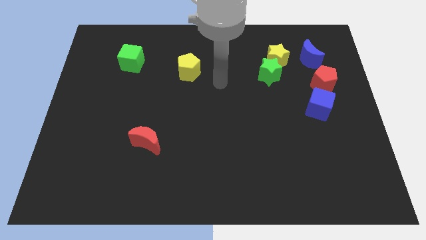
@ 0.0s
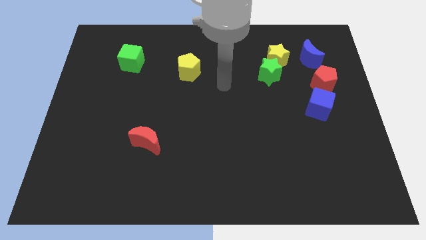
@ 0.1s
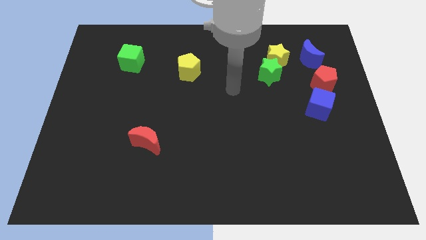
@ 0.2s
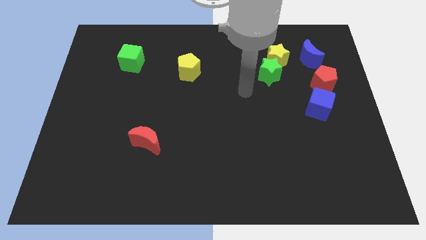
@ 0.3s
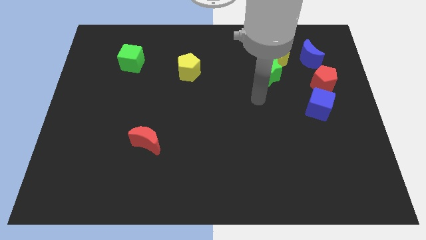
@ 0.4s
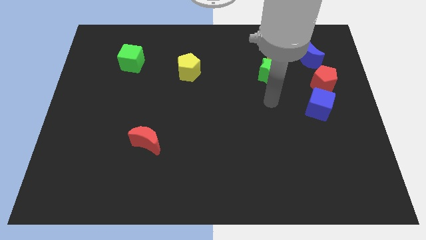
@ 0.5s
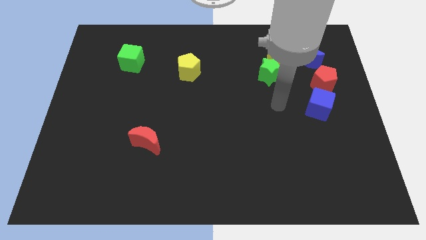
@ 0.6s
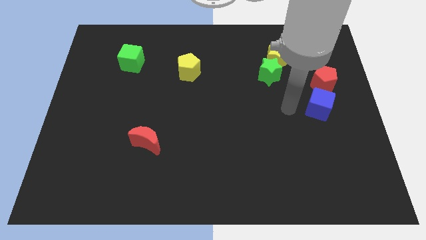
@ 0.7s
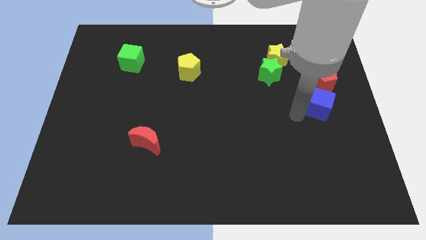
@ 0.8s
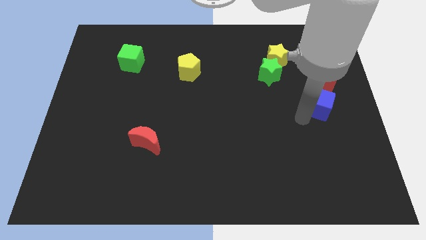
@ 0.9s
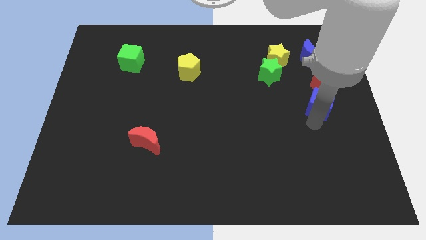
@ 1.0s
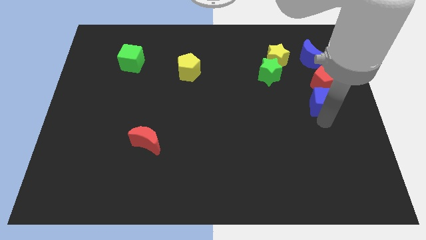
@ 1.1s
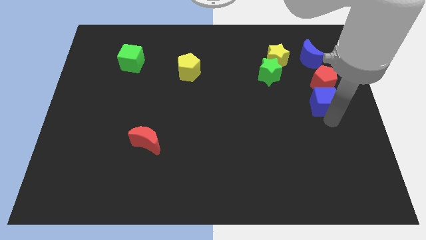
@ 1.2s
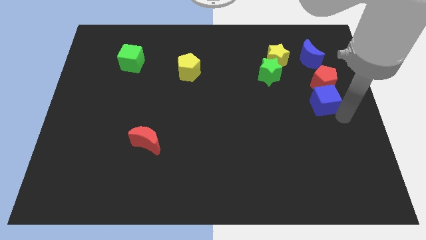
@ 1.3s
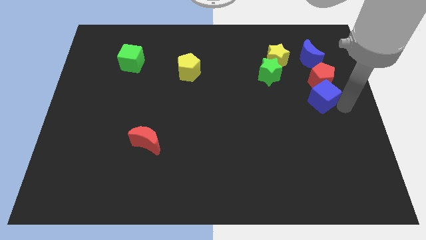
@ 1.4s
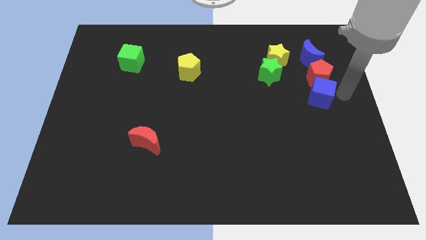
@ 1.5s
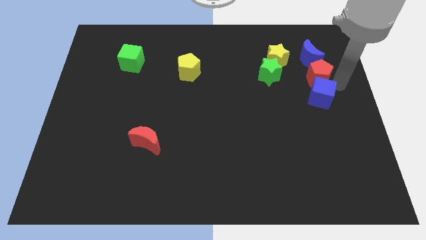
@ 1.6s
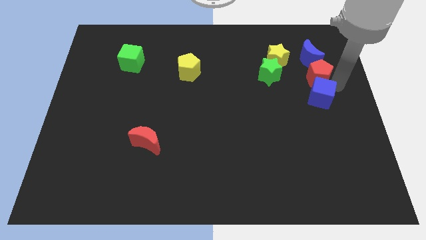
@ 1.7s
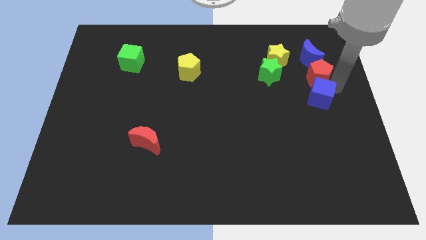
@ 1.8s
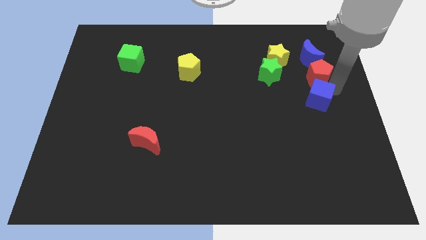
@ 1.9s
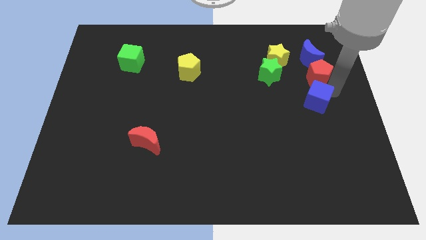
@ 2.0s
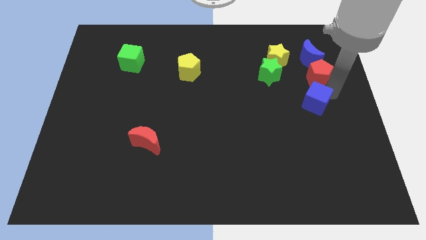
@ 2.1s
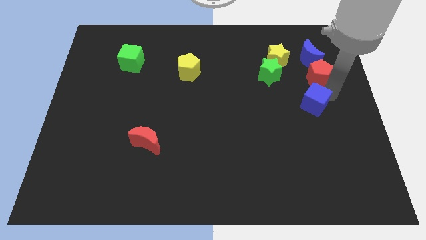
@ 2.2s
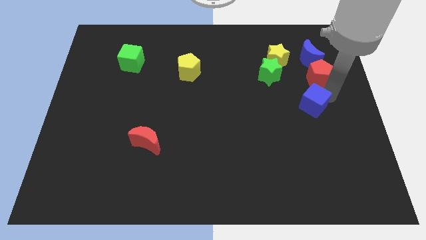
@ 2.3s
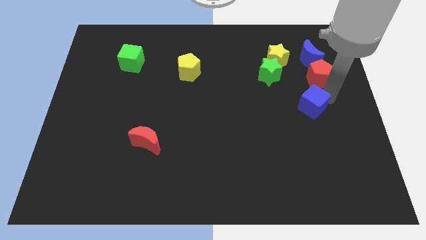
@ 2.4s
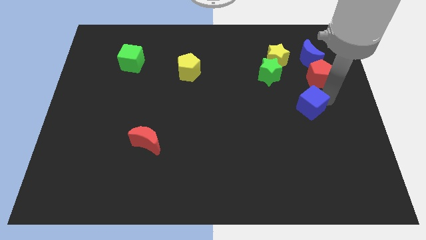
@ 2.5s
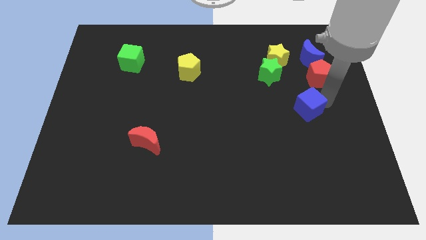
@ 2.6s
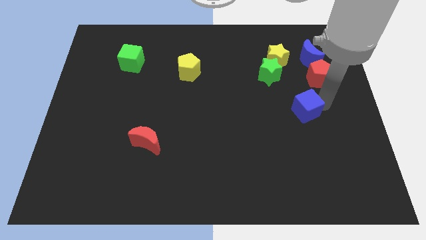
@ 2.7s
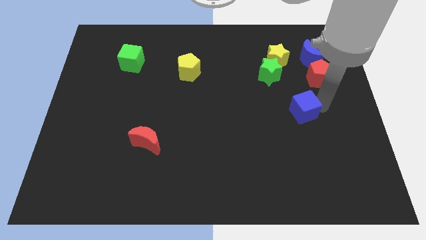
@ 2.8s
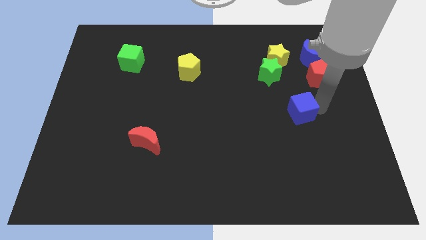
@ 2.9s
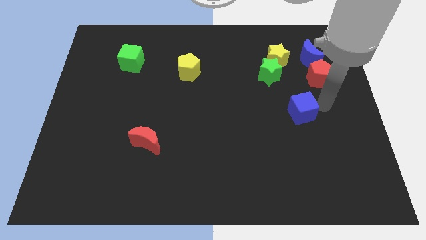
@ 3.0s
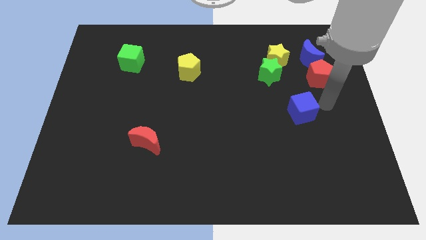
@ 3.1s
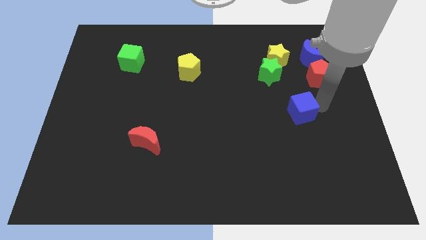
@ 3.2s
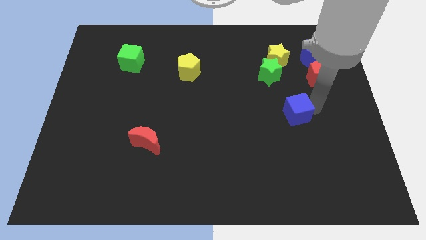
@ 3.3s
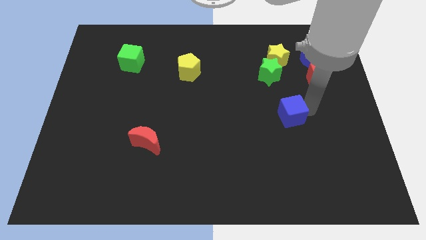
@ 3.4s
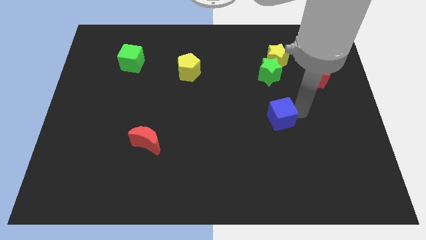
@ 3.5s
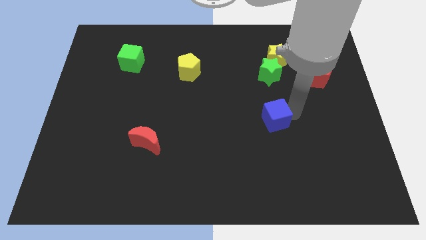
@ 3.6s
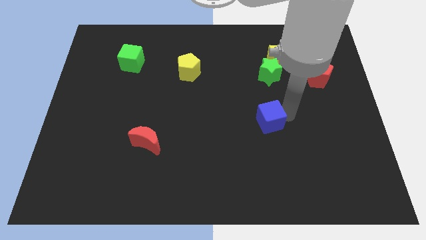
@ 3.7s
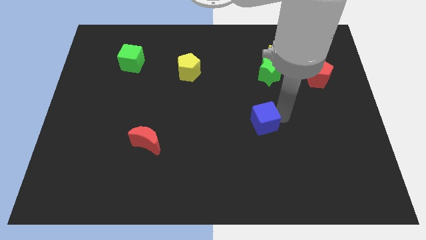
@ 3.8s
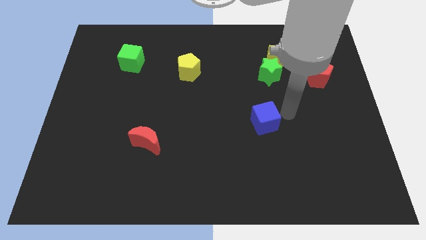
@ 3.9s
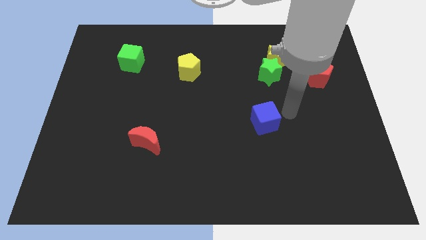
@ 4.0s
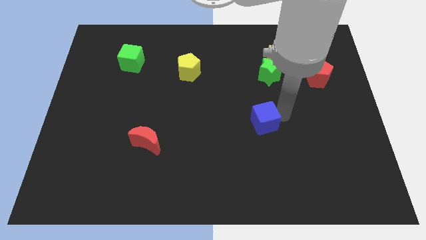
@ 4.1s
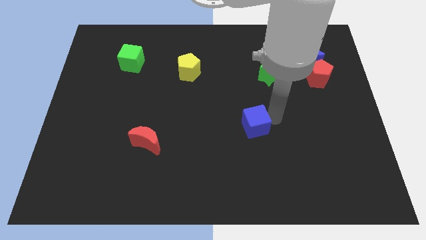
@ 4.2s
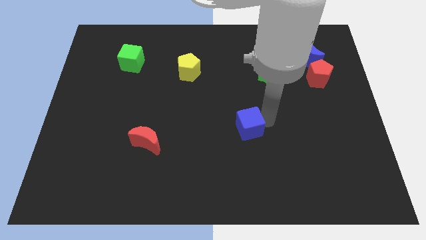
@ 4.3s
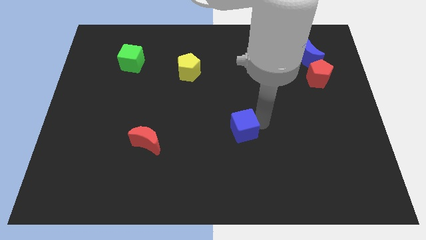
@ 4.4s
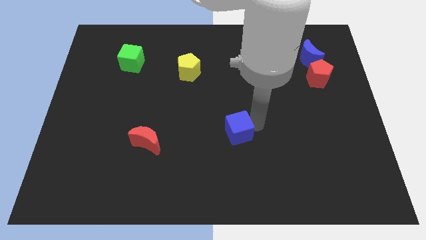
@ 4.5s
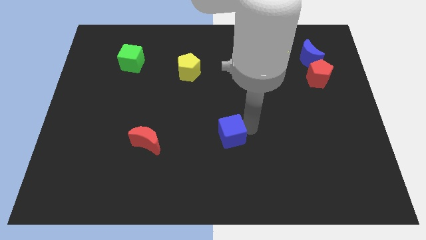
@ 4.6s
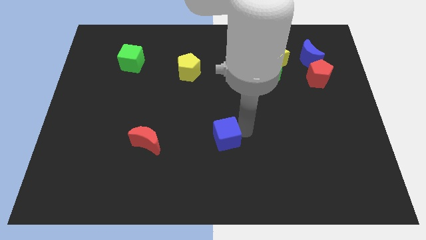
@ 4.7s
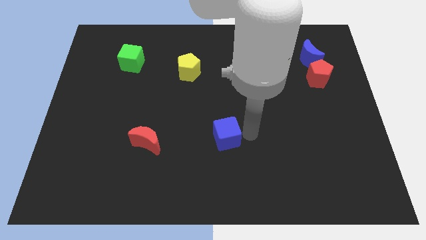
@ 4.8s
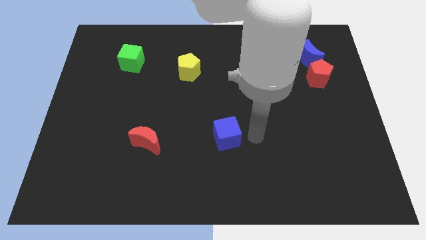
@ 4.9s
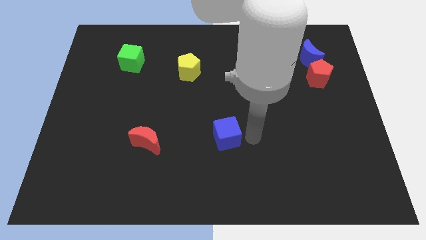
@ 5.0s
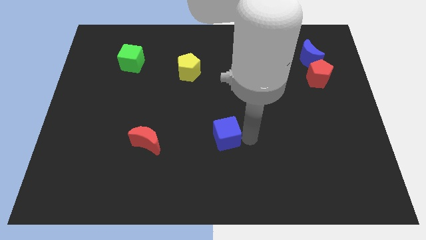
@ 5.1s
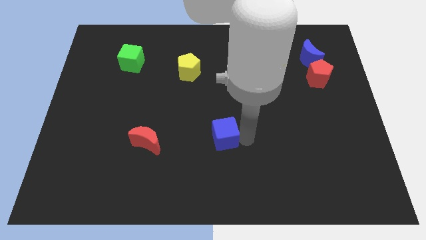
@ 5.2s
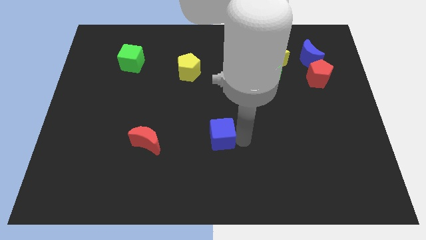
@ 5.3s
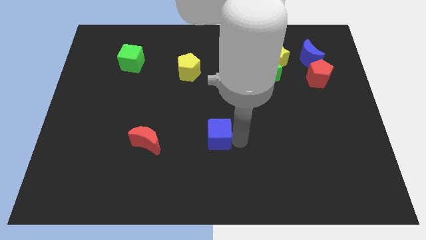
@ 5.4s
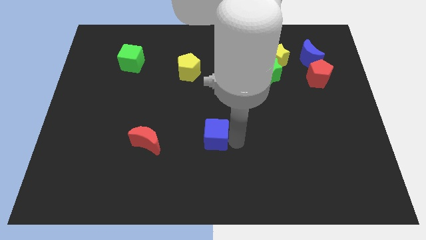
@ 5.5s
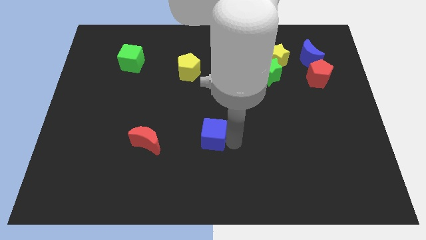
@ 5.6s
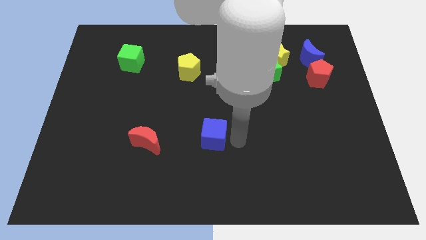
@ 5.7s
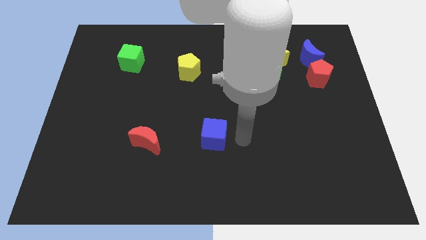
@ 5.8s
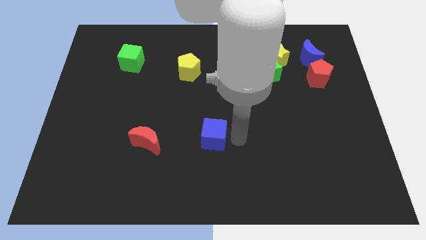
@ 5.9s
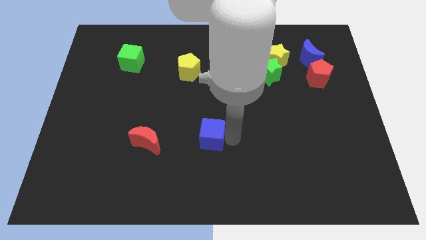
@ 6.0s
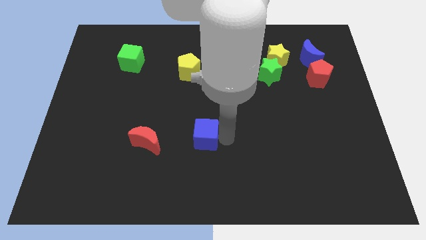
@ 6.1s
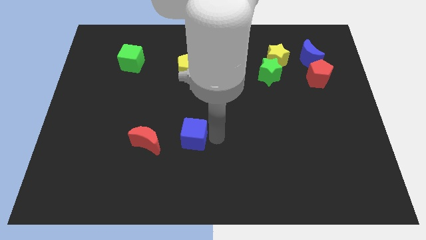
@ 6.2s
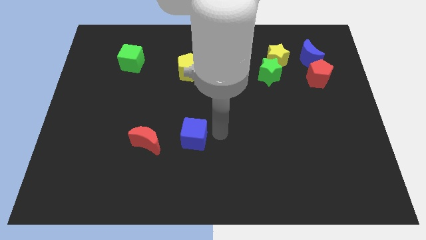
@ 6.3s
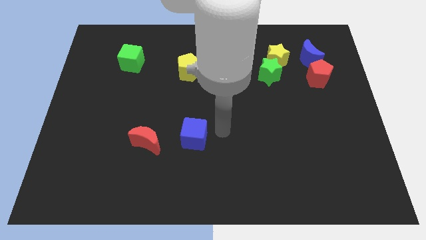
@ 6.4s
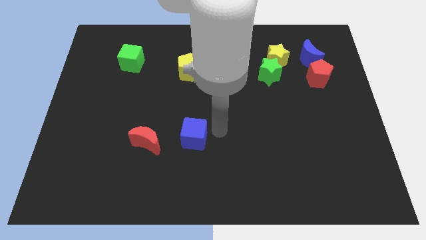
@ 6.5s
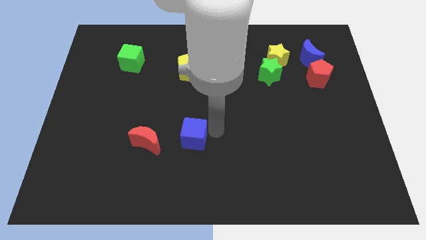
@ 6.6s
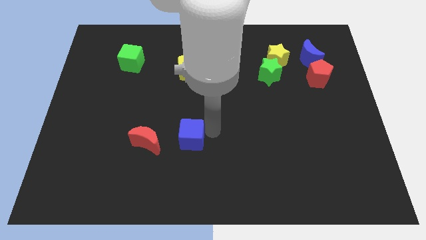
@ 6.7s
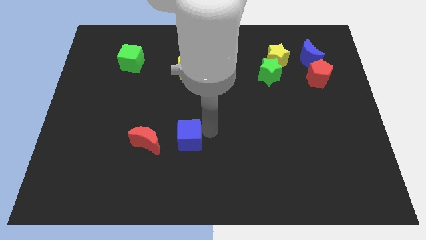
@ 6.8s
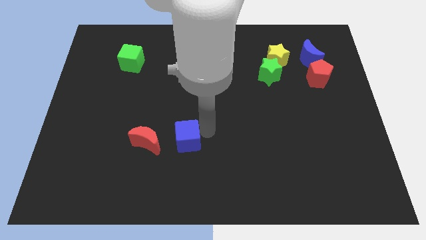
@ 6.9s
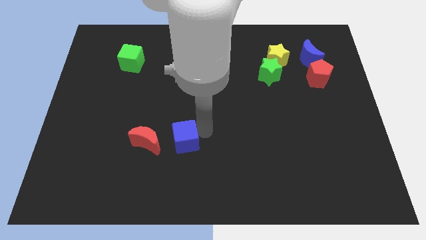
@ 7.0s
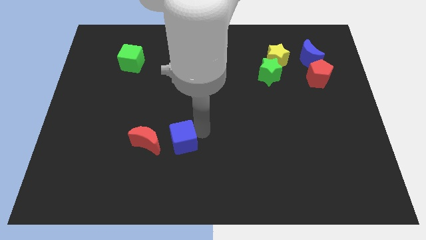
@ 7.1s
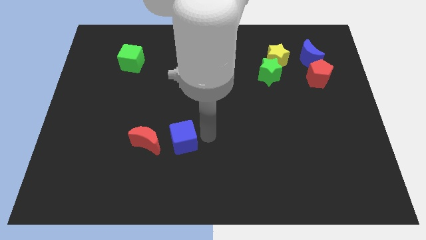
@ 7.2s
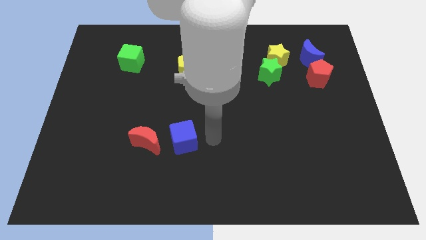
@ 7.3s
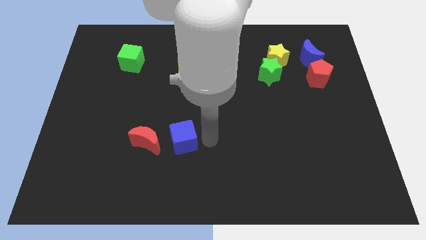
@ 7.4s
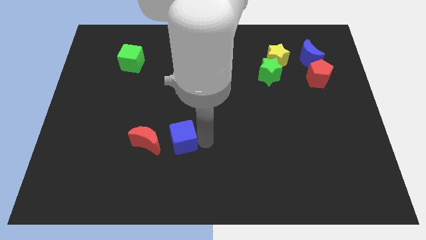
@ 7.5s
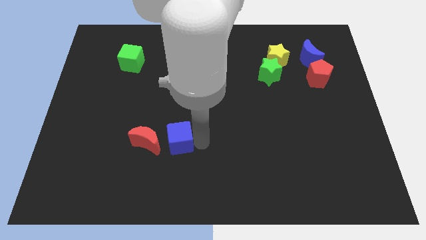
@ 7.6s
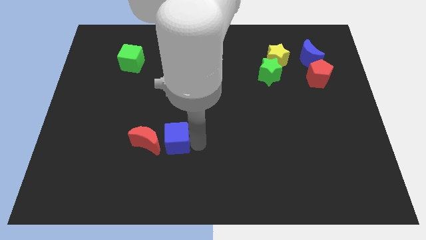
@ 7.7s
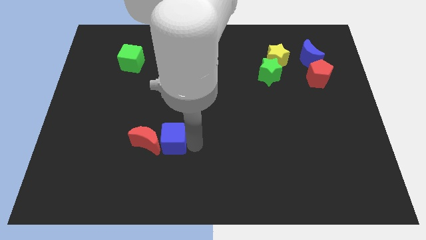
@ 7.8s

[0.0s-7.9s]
move the blue cube to the red moon
